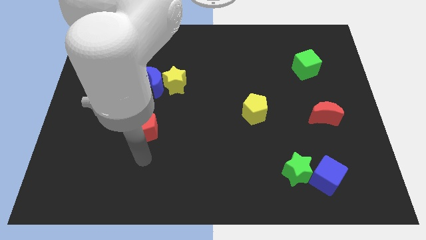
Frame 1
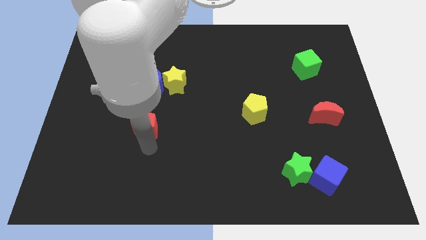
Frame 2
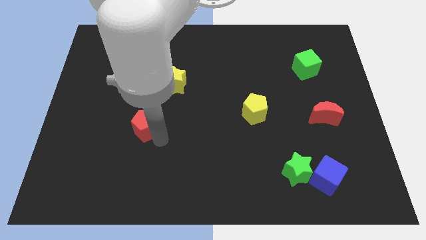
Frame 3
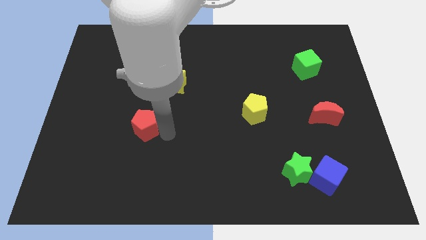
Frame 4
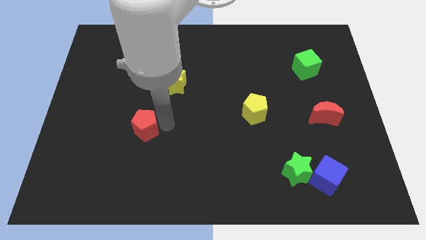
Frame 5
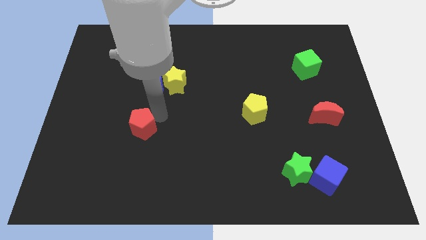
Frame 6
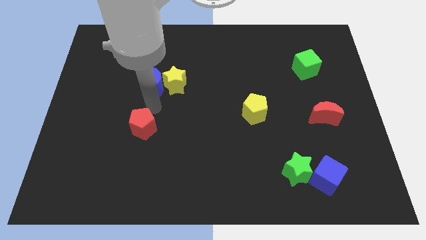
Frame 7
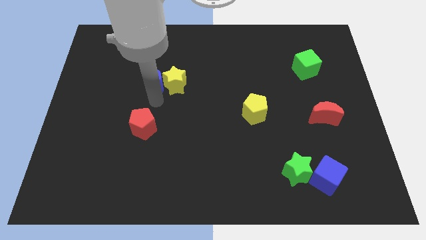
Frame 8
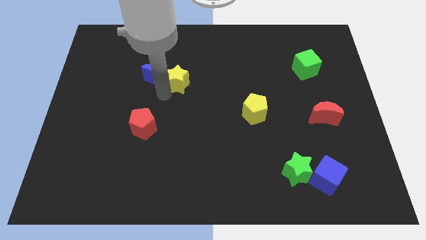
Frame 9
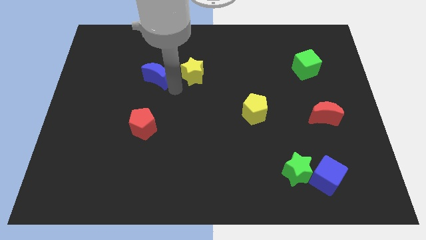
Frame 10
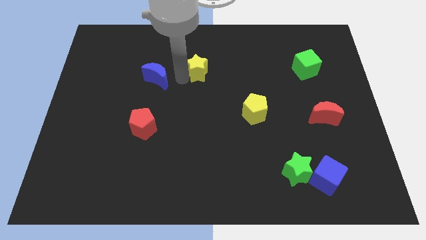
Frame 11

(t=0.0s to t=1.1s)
separate the blue moon from the yellow star

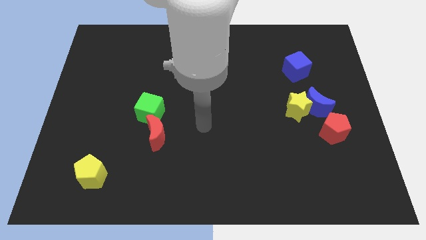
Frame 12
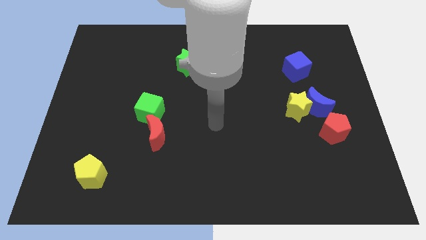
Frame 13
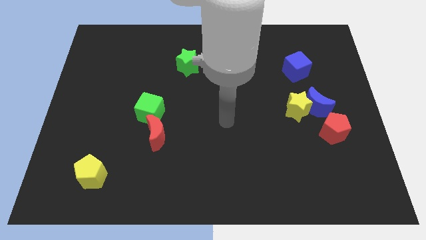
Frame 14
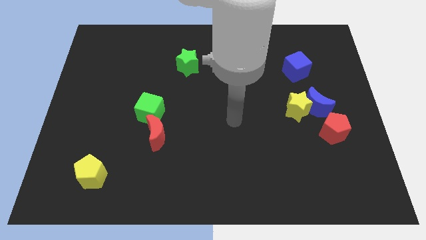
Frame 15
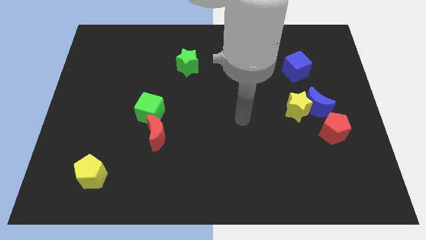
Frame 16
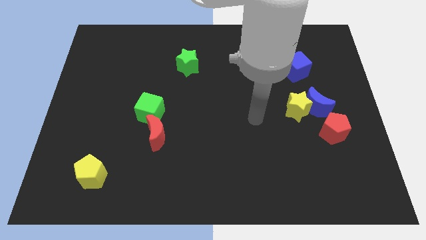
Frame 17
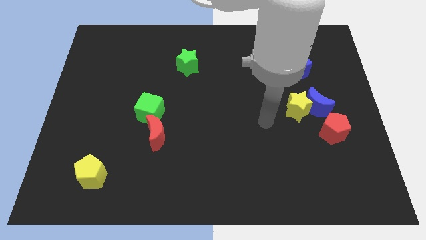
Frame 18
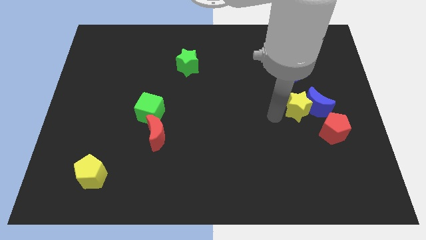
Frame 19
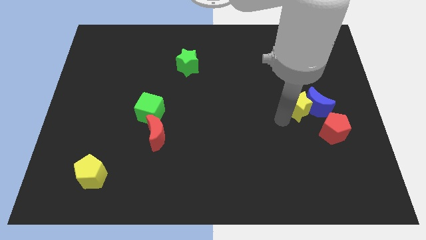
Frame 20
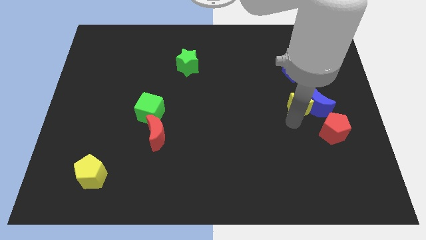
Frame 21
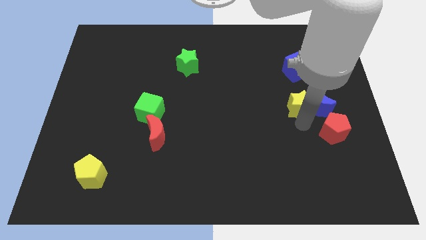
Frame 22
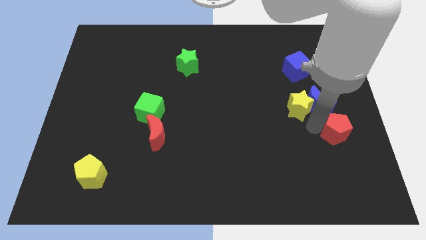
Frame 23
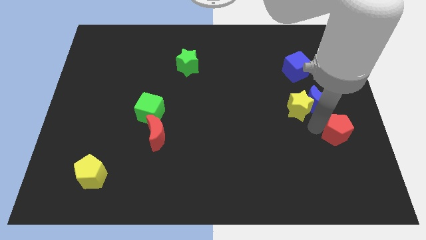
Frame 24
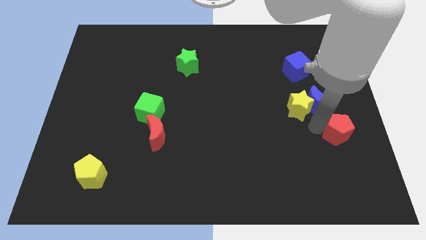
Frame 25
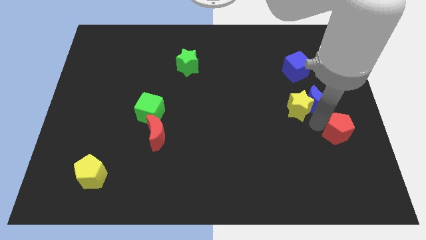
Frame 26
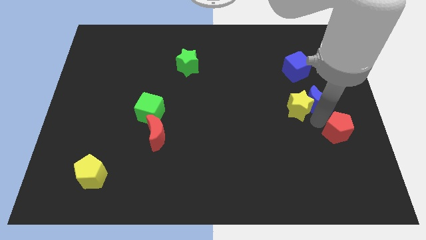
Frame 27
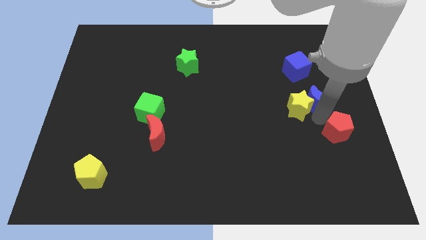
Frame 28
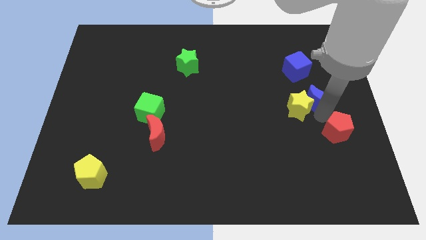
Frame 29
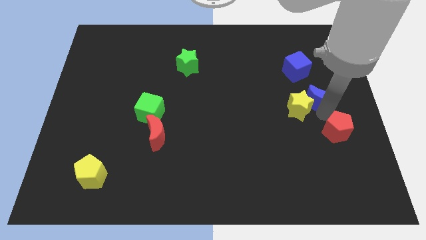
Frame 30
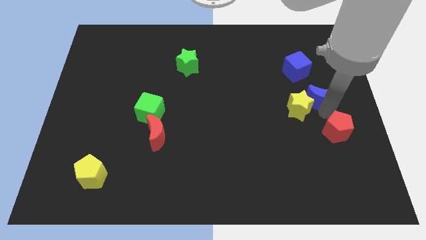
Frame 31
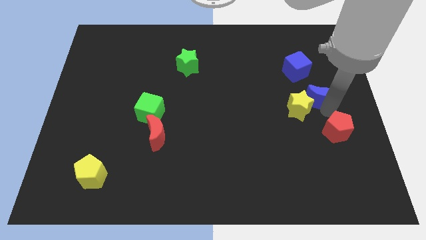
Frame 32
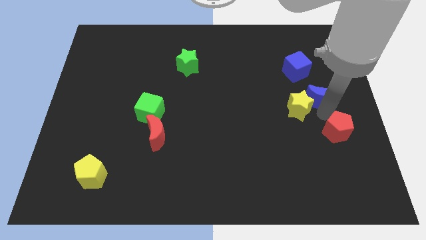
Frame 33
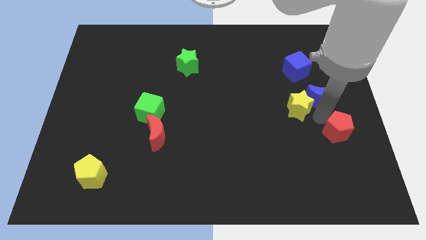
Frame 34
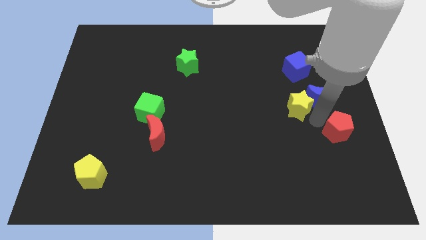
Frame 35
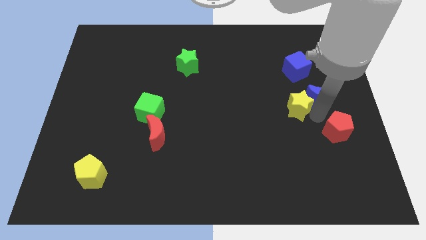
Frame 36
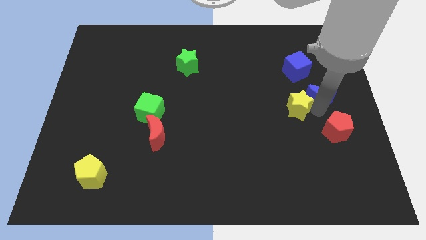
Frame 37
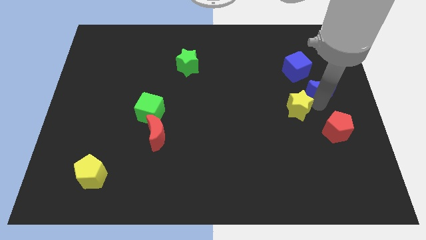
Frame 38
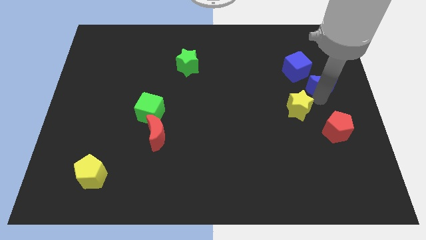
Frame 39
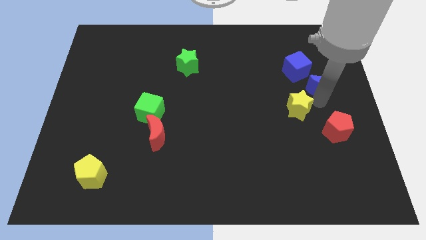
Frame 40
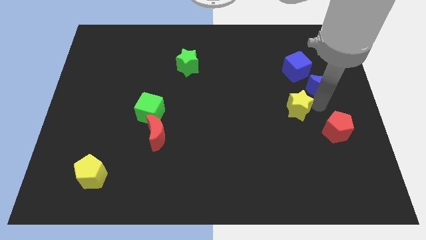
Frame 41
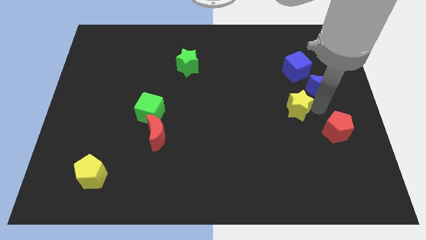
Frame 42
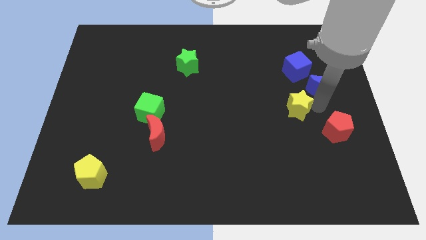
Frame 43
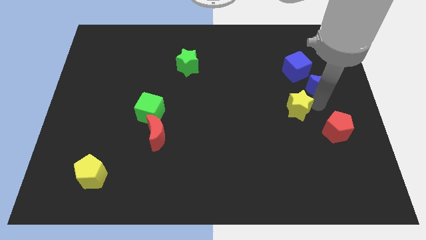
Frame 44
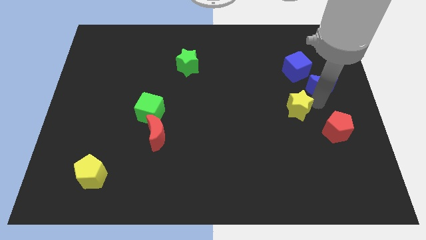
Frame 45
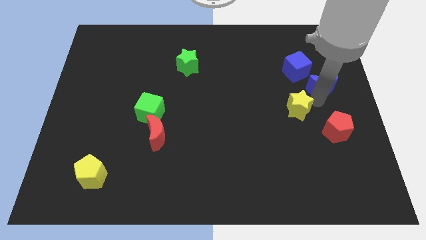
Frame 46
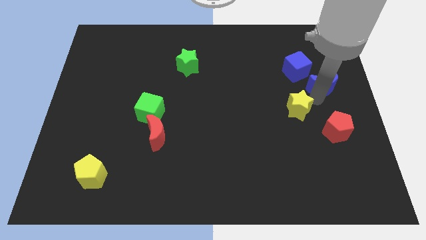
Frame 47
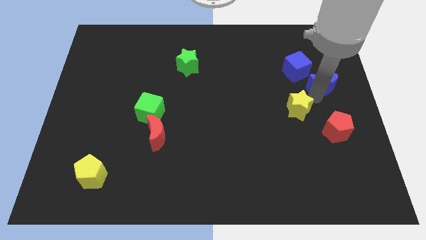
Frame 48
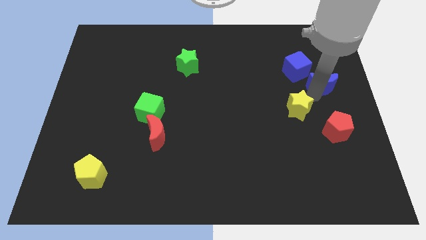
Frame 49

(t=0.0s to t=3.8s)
move the blue moon away from the yellow star and red pentagon

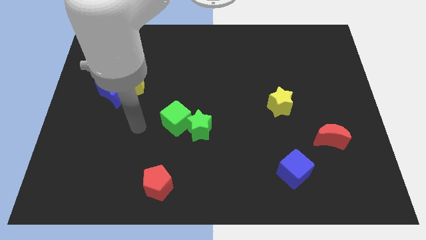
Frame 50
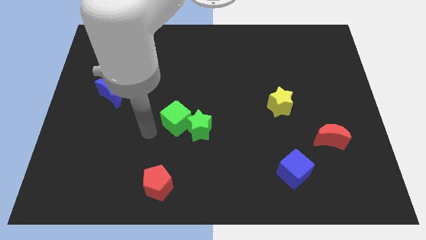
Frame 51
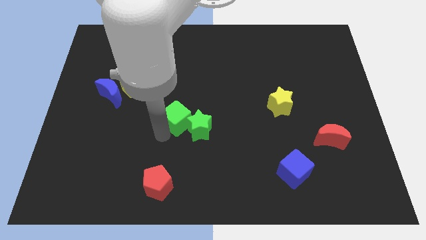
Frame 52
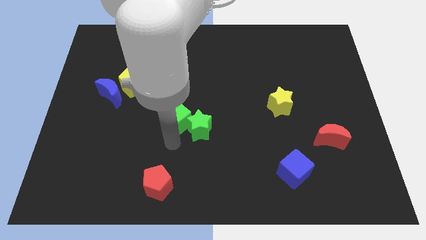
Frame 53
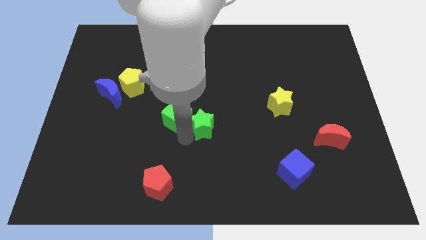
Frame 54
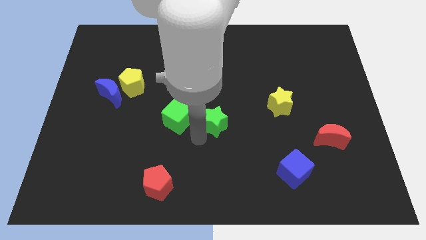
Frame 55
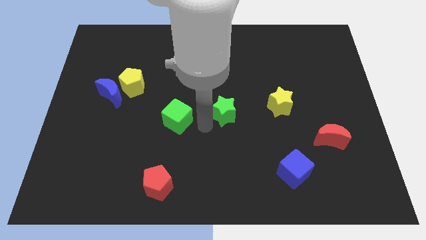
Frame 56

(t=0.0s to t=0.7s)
pull the green cube apart from the green star

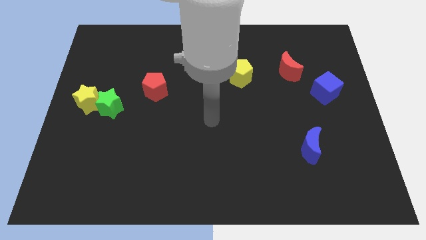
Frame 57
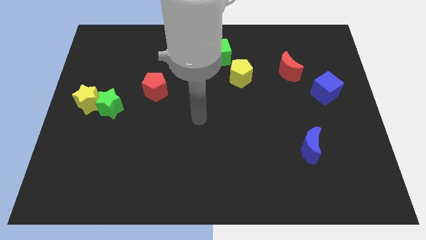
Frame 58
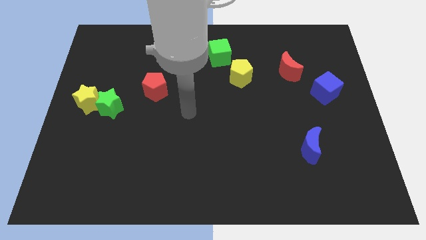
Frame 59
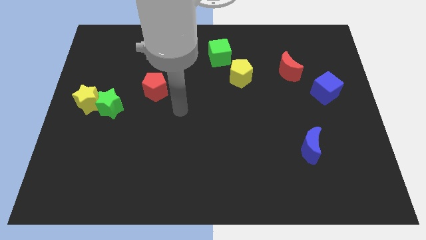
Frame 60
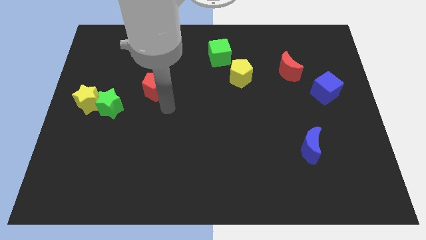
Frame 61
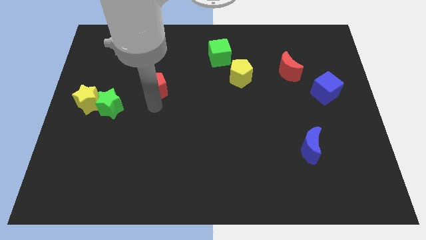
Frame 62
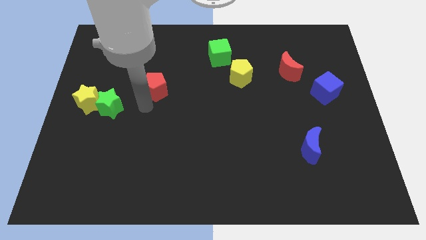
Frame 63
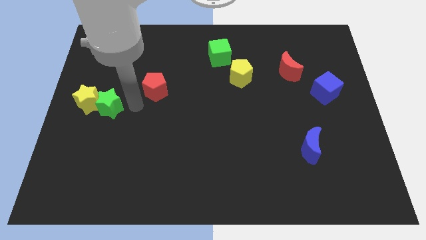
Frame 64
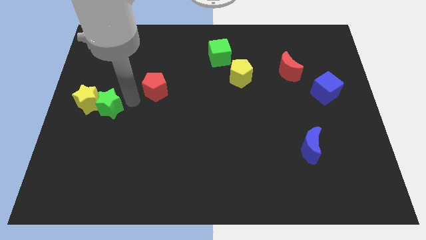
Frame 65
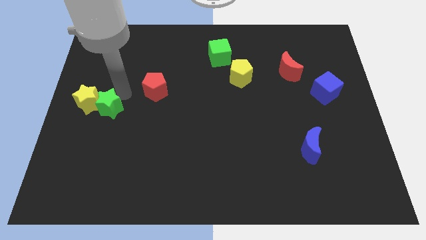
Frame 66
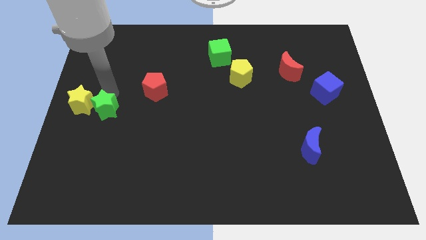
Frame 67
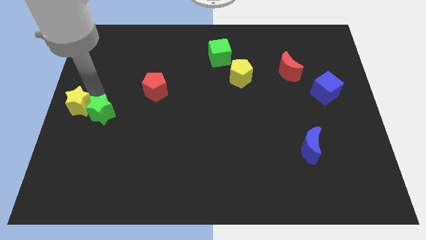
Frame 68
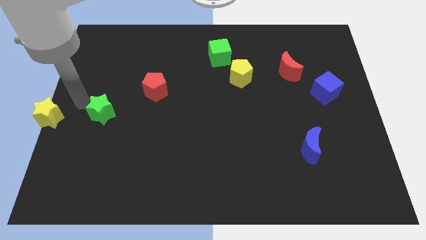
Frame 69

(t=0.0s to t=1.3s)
separate the green star from the yellow star

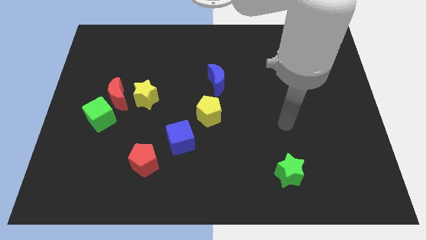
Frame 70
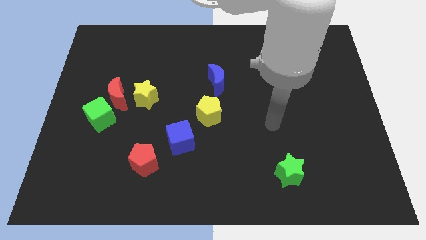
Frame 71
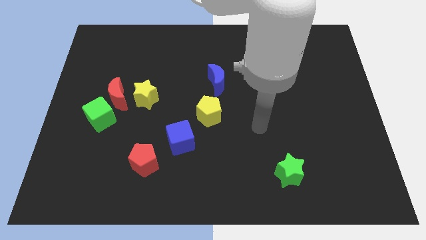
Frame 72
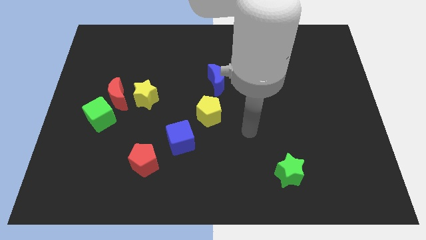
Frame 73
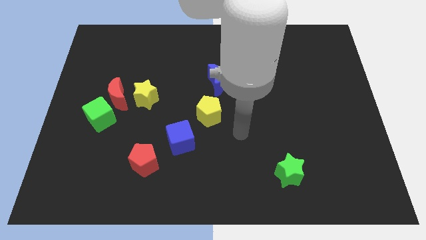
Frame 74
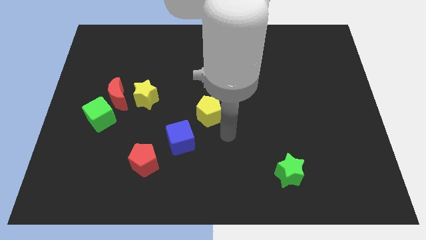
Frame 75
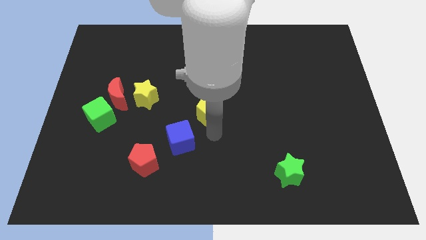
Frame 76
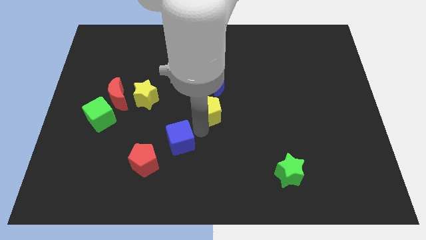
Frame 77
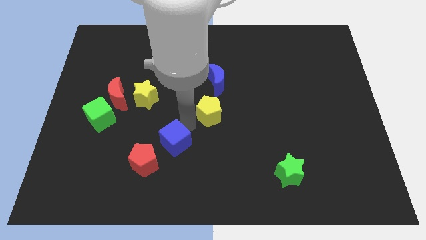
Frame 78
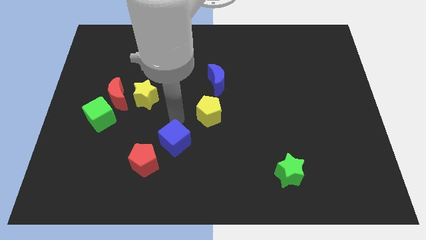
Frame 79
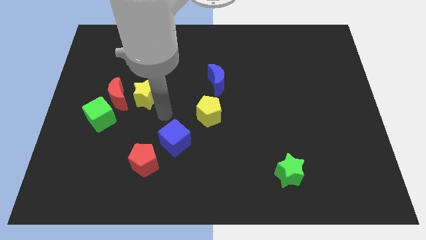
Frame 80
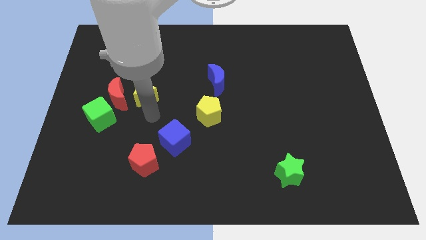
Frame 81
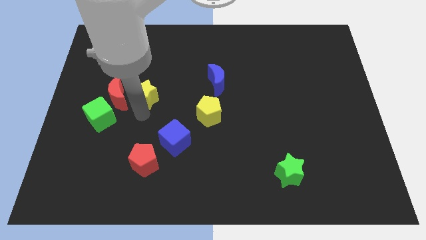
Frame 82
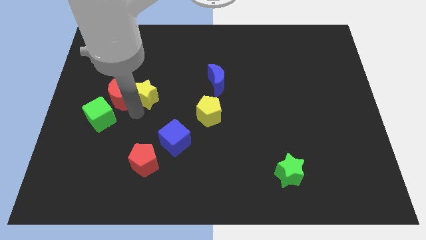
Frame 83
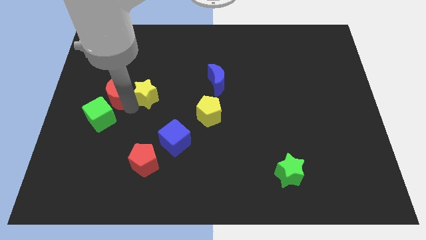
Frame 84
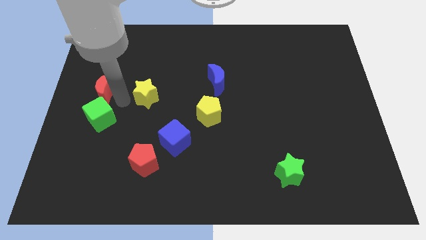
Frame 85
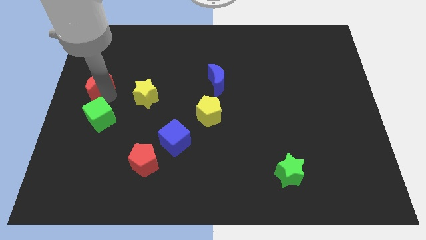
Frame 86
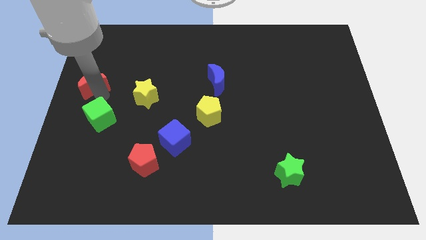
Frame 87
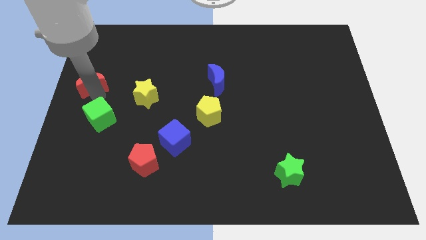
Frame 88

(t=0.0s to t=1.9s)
move the green cube away from the red moon

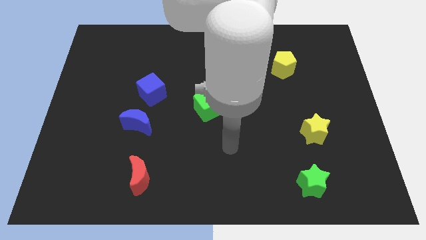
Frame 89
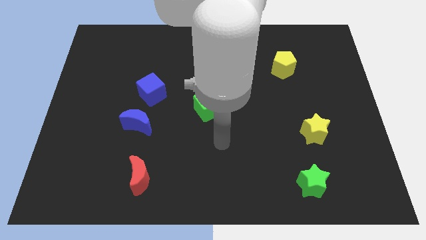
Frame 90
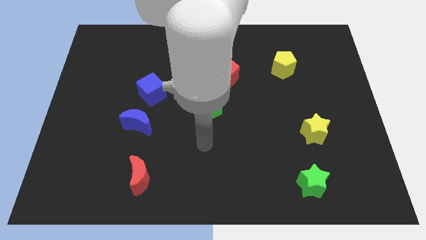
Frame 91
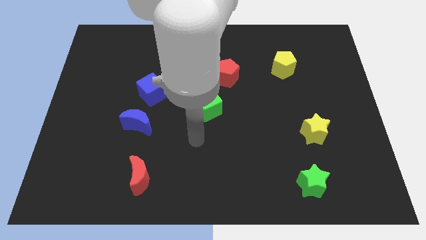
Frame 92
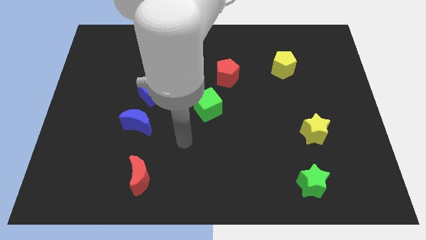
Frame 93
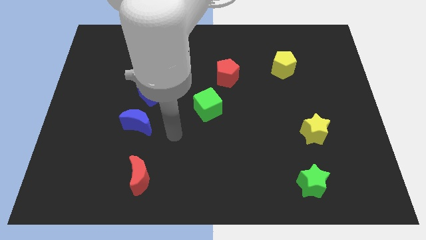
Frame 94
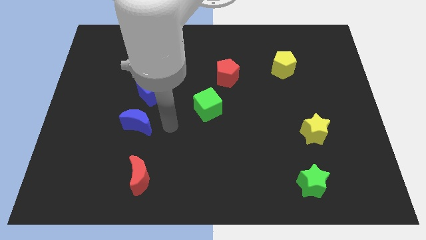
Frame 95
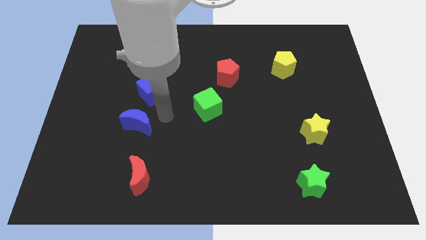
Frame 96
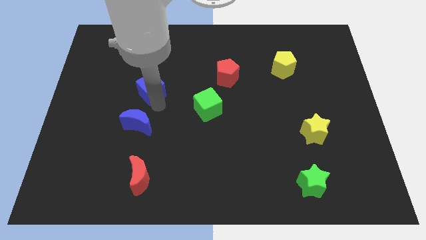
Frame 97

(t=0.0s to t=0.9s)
move the blue moon away from the blue cube
